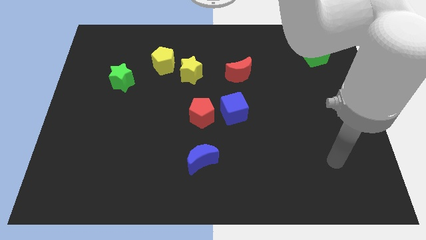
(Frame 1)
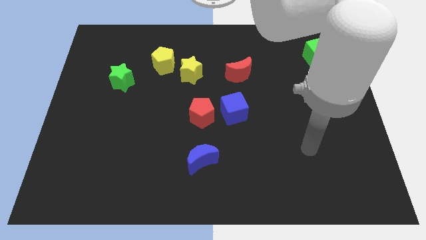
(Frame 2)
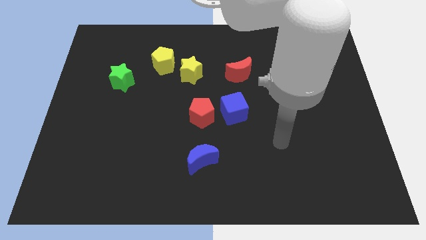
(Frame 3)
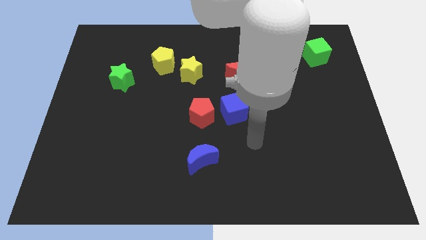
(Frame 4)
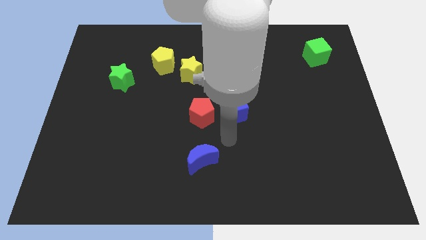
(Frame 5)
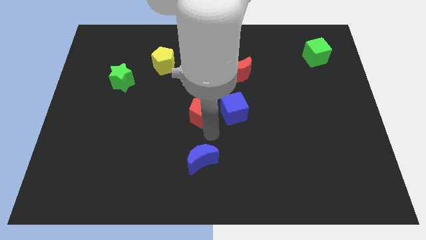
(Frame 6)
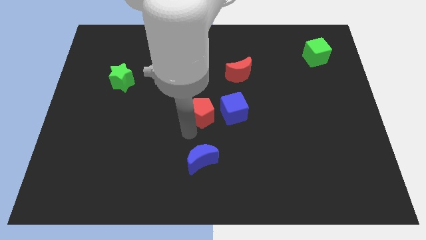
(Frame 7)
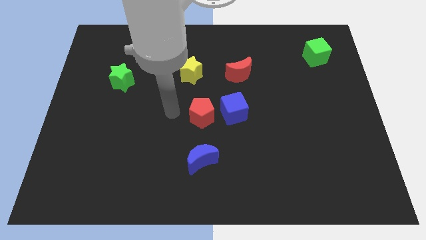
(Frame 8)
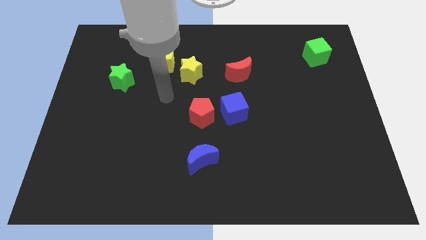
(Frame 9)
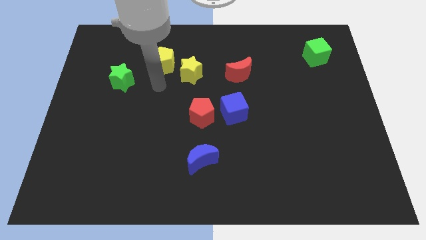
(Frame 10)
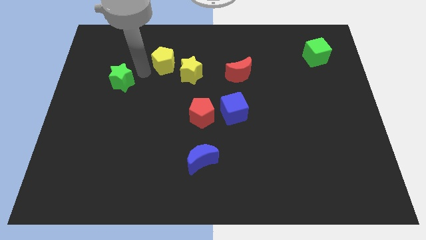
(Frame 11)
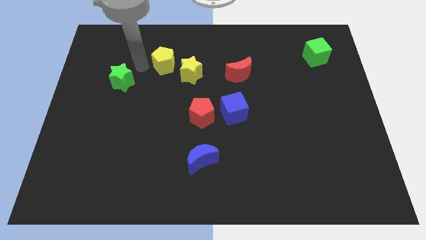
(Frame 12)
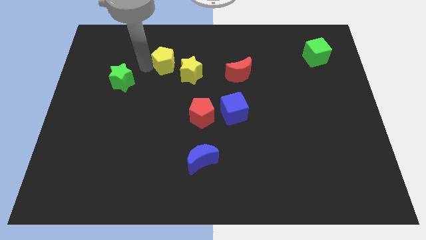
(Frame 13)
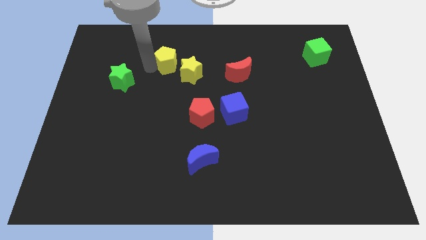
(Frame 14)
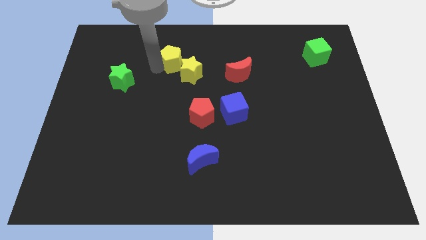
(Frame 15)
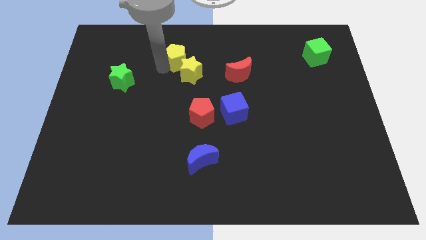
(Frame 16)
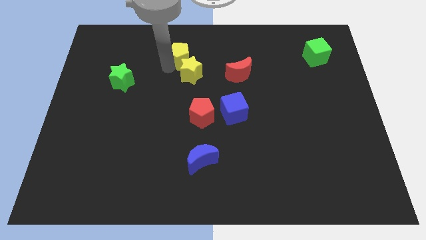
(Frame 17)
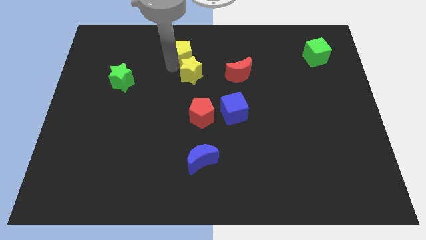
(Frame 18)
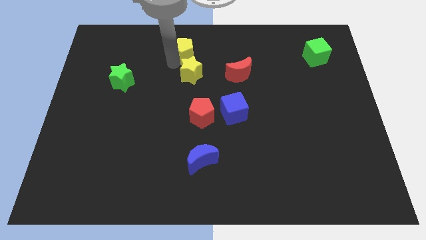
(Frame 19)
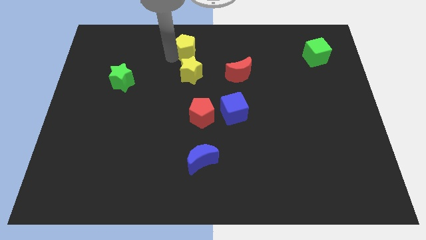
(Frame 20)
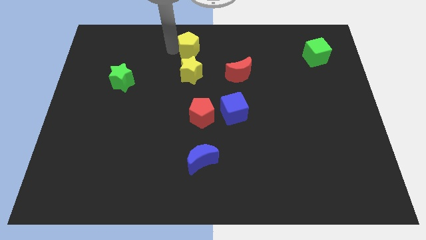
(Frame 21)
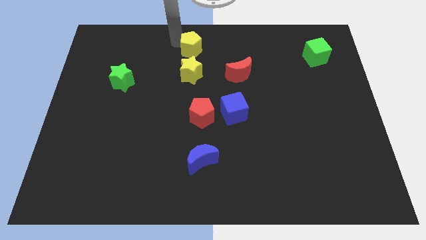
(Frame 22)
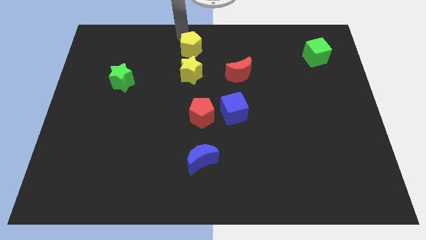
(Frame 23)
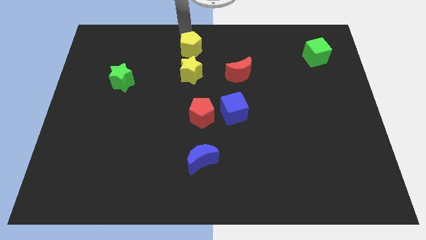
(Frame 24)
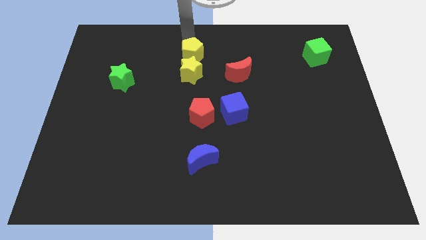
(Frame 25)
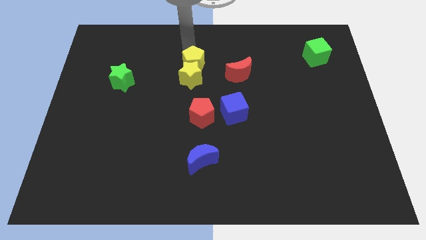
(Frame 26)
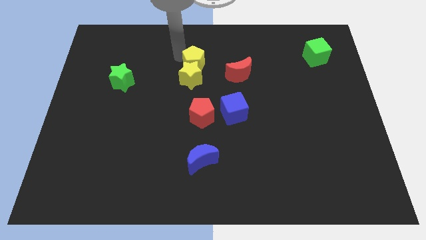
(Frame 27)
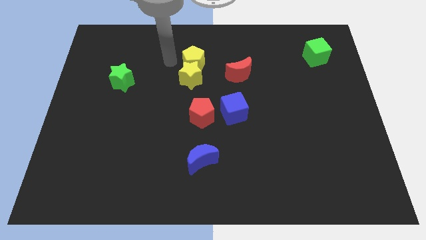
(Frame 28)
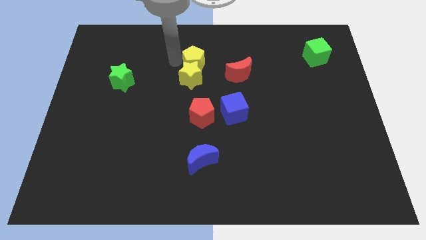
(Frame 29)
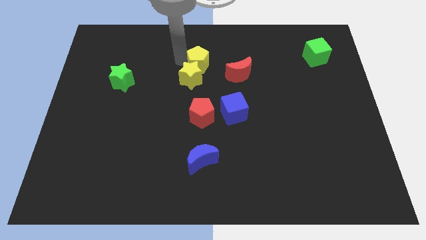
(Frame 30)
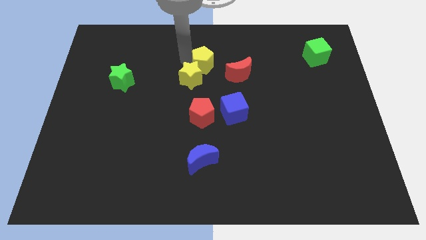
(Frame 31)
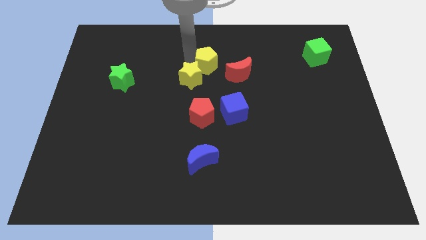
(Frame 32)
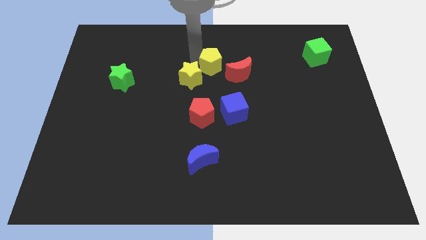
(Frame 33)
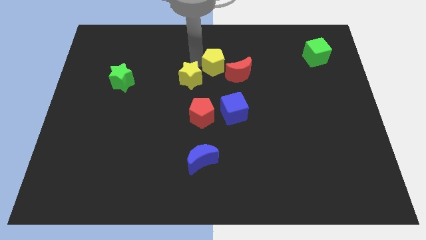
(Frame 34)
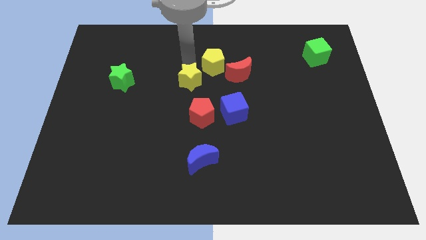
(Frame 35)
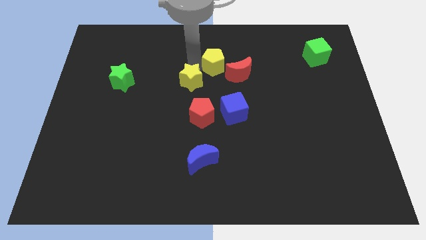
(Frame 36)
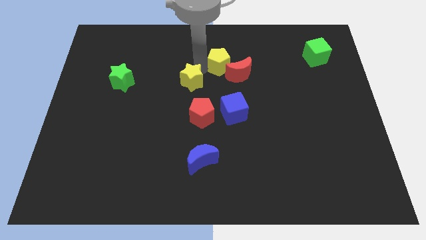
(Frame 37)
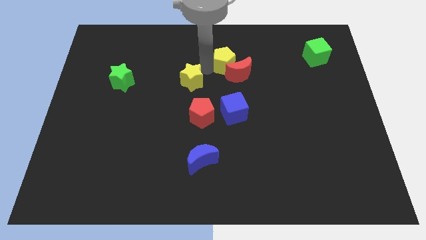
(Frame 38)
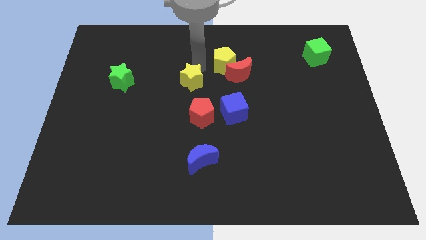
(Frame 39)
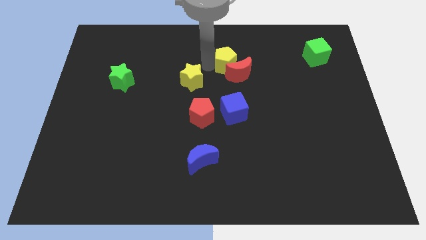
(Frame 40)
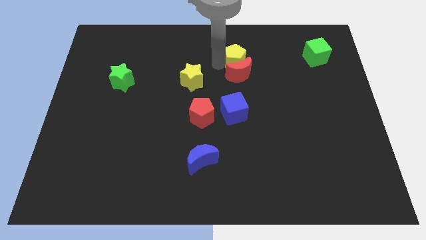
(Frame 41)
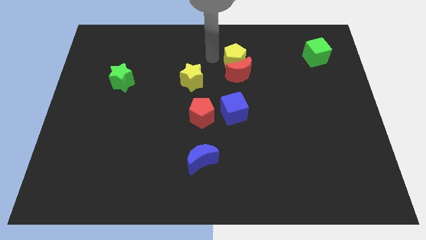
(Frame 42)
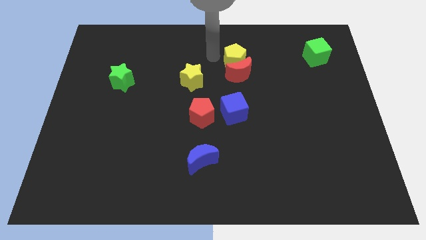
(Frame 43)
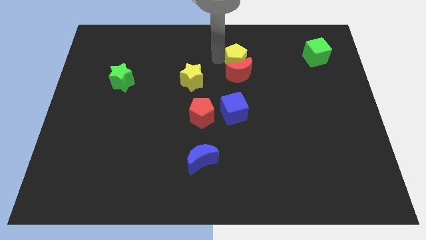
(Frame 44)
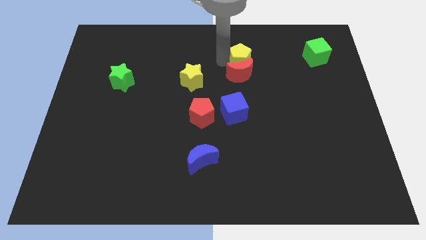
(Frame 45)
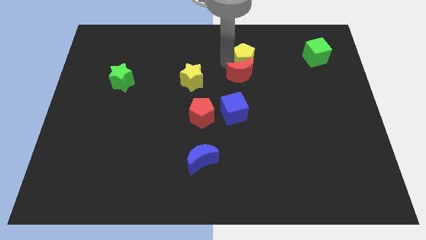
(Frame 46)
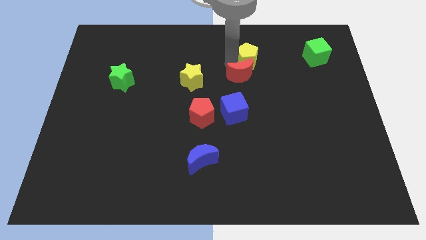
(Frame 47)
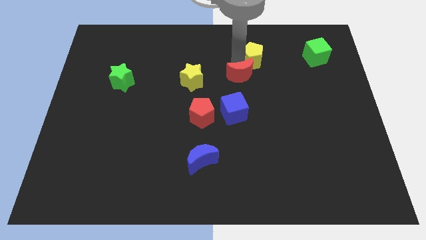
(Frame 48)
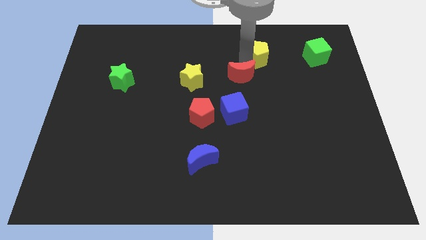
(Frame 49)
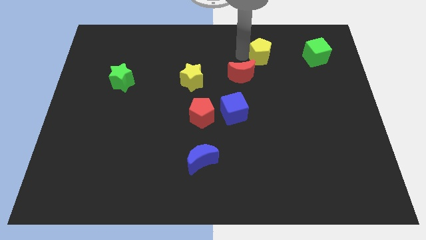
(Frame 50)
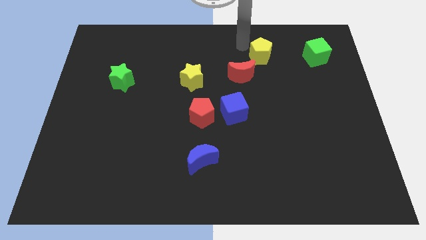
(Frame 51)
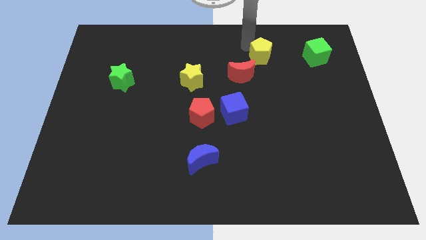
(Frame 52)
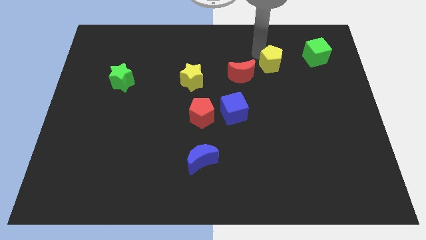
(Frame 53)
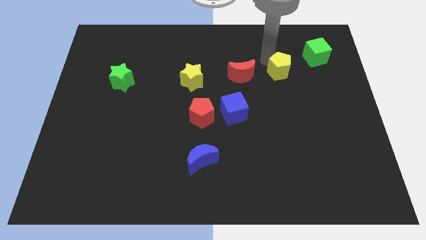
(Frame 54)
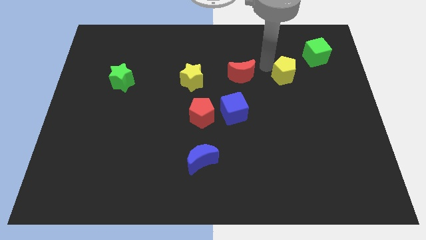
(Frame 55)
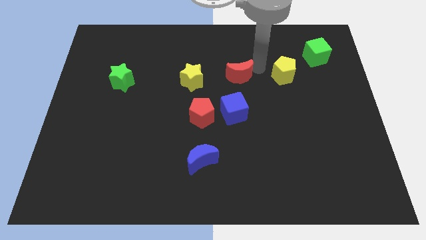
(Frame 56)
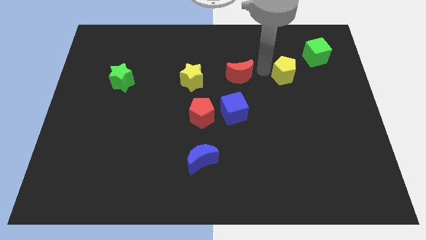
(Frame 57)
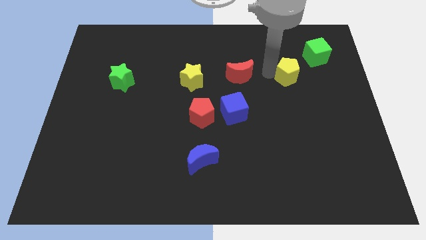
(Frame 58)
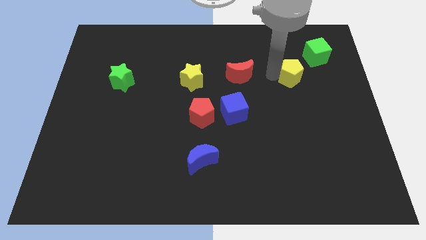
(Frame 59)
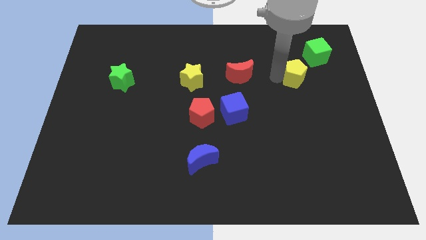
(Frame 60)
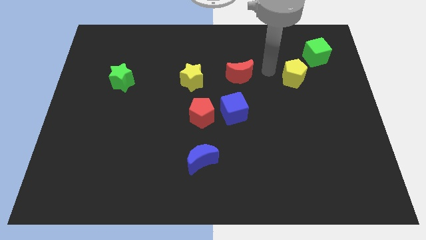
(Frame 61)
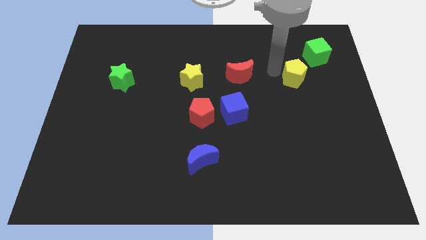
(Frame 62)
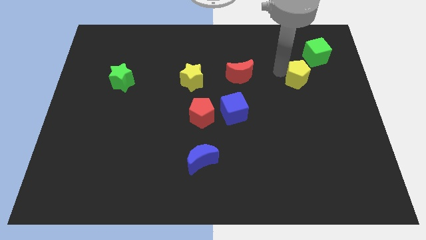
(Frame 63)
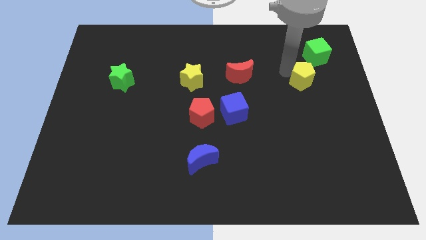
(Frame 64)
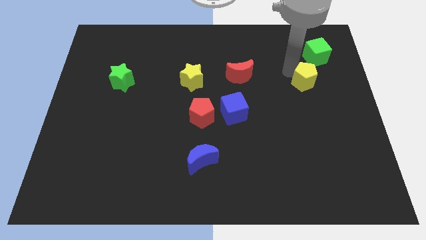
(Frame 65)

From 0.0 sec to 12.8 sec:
push the yellow pentagon to the bottom side of the green cube
